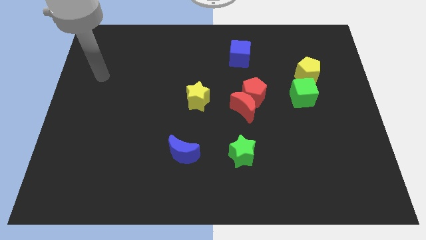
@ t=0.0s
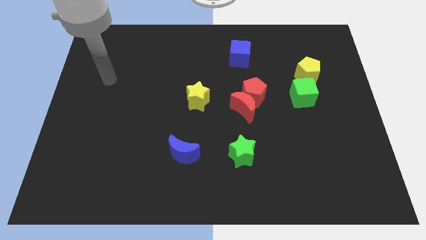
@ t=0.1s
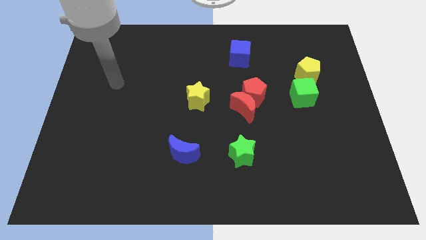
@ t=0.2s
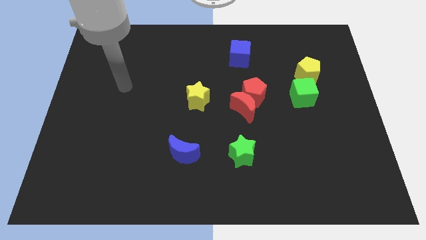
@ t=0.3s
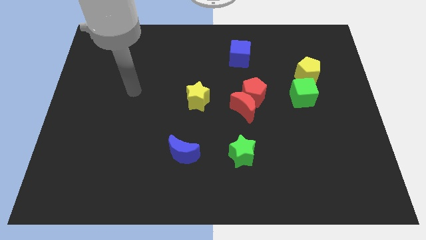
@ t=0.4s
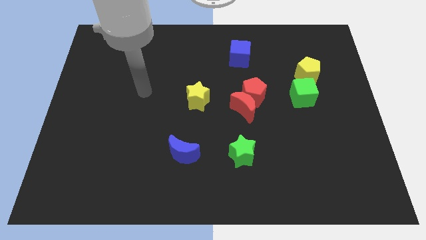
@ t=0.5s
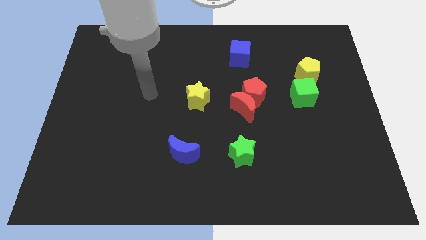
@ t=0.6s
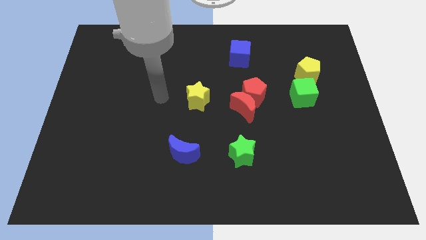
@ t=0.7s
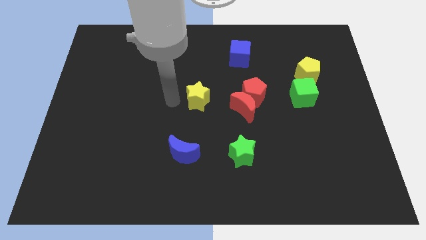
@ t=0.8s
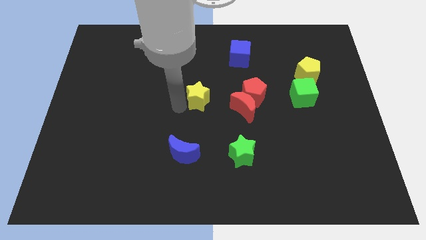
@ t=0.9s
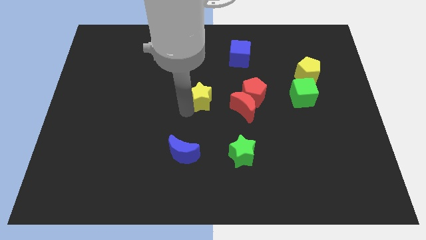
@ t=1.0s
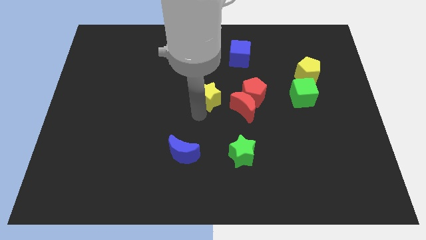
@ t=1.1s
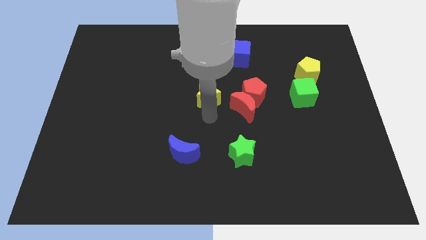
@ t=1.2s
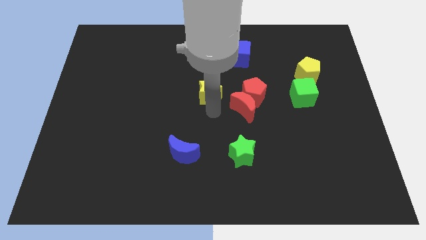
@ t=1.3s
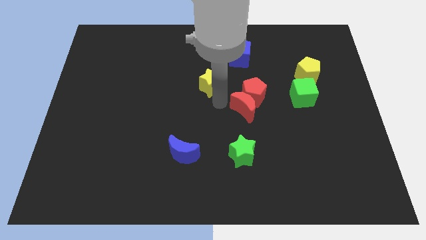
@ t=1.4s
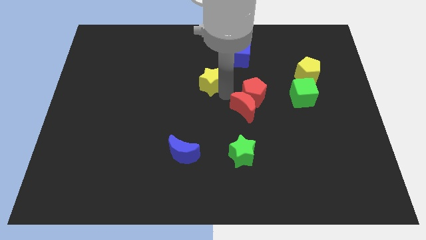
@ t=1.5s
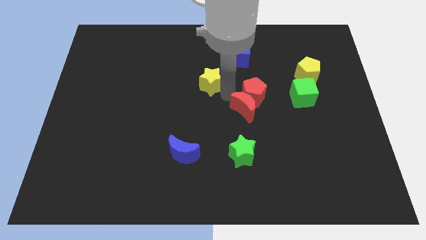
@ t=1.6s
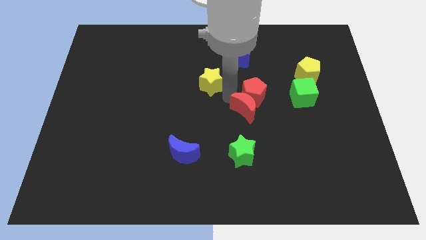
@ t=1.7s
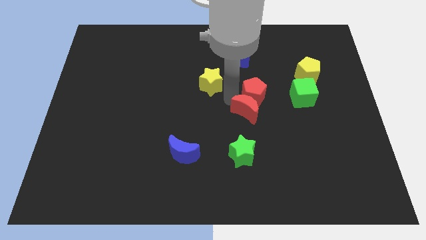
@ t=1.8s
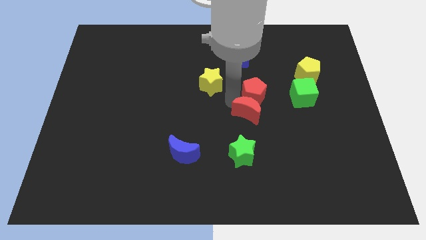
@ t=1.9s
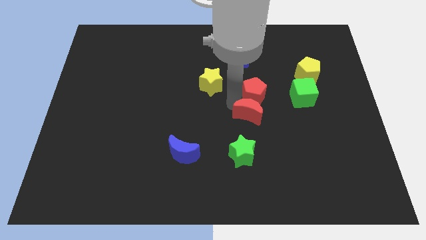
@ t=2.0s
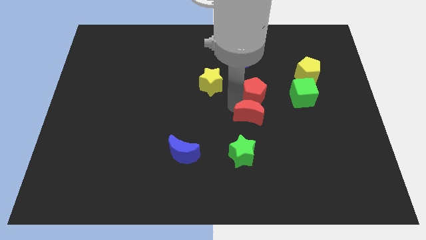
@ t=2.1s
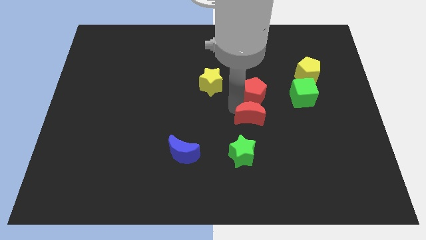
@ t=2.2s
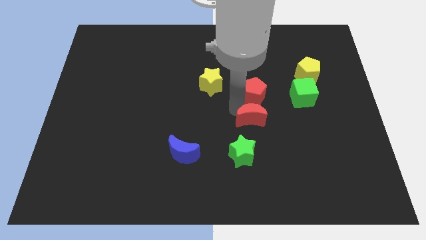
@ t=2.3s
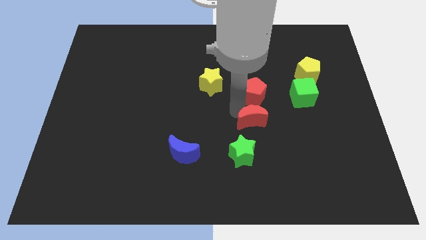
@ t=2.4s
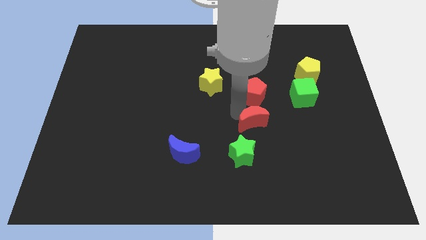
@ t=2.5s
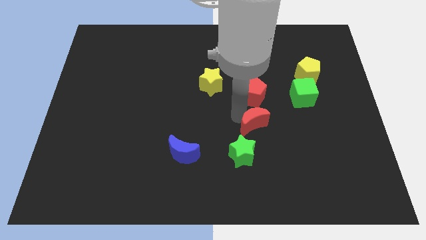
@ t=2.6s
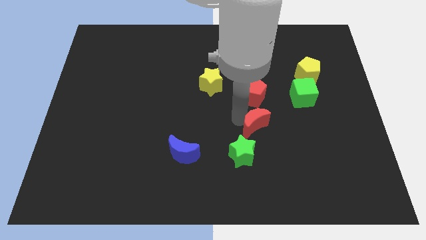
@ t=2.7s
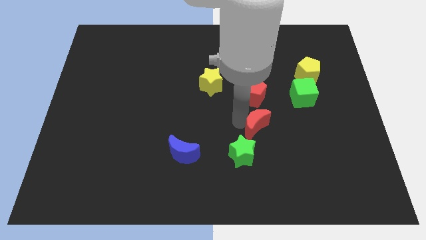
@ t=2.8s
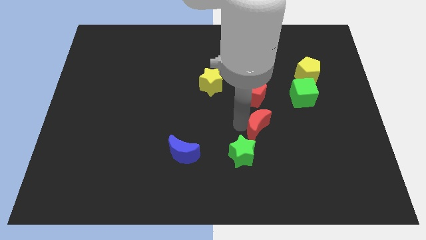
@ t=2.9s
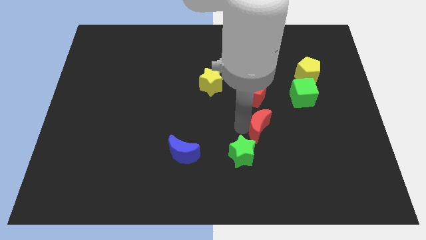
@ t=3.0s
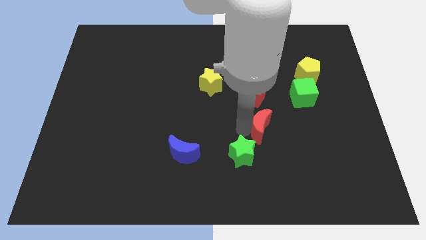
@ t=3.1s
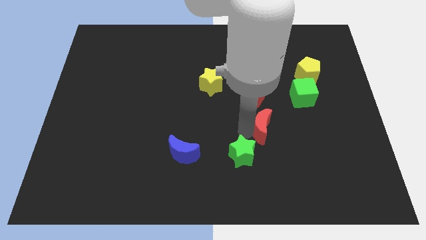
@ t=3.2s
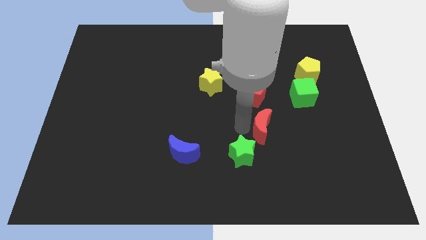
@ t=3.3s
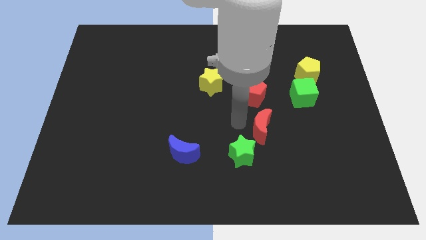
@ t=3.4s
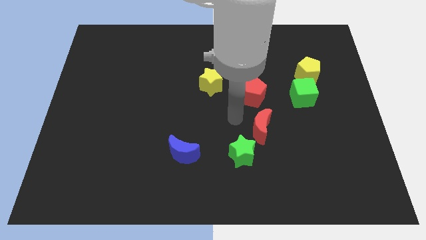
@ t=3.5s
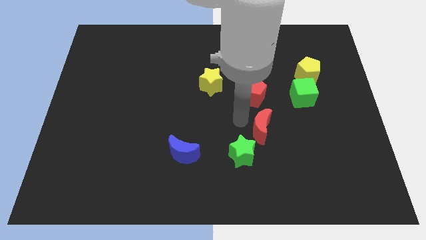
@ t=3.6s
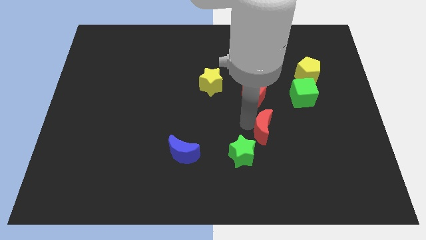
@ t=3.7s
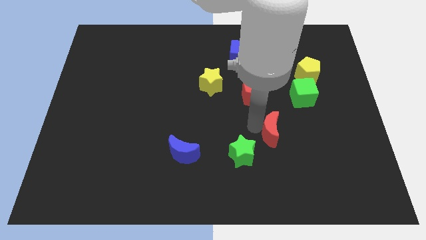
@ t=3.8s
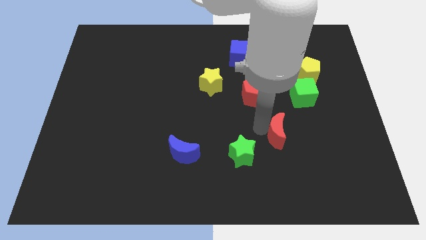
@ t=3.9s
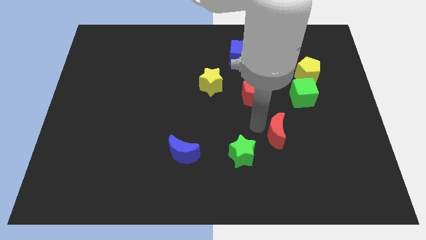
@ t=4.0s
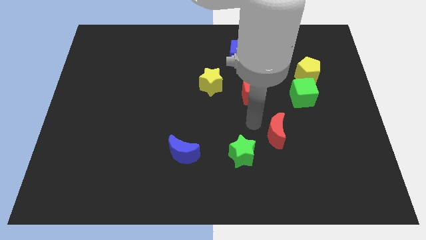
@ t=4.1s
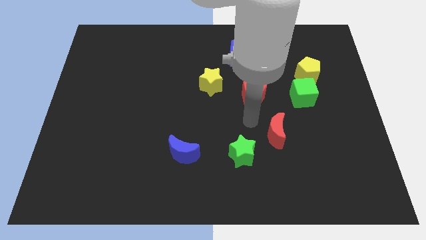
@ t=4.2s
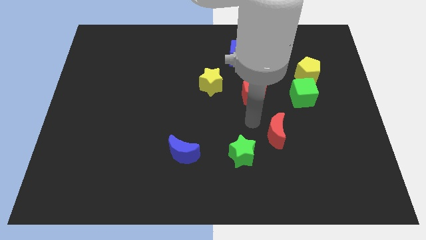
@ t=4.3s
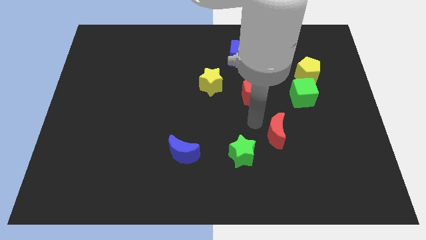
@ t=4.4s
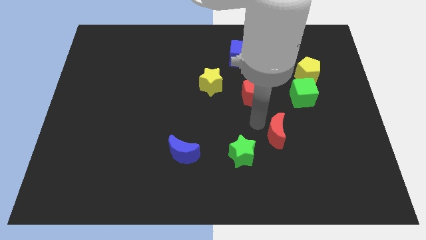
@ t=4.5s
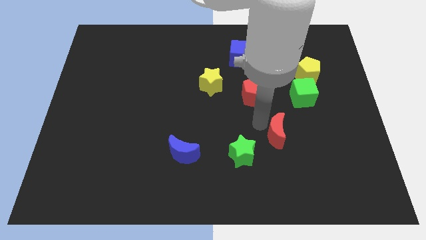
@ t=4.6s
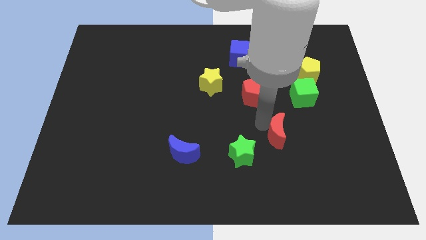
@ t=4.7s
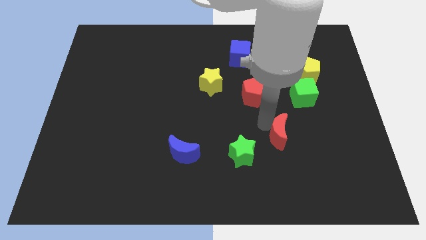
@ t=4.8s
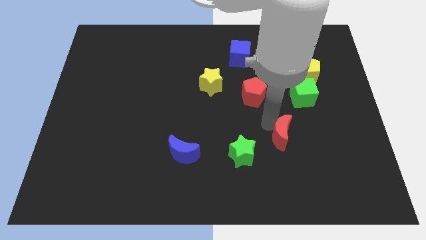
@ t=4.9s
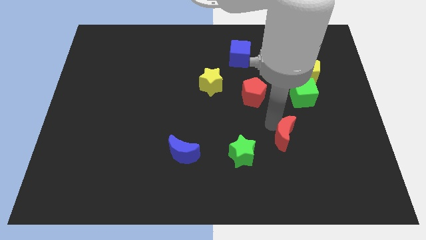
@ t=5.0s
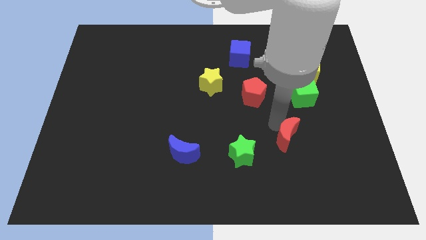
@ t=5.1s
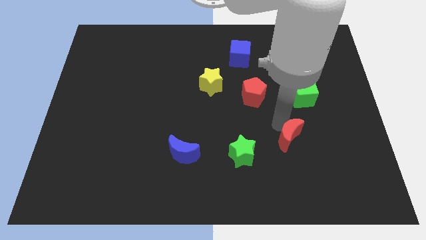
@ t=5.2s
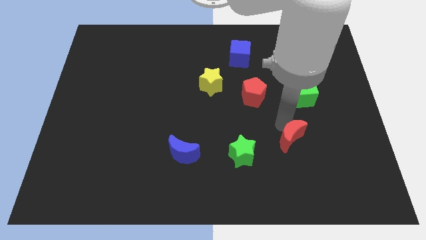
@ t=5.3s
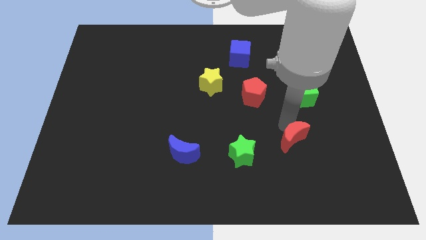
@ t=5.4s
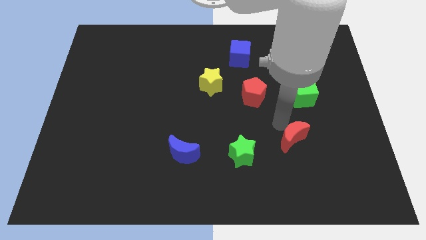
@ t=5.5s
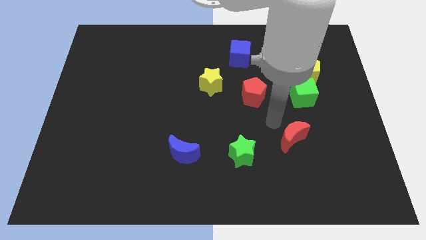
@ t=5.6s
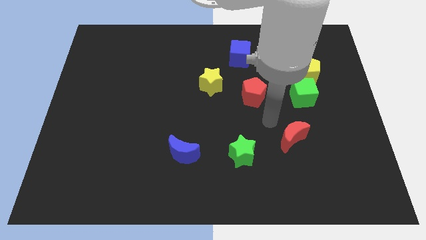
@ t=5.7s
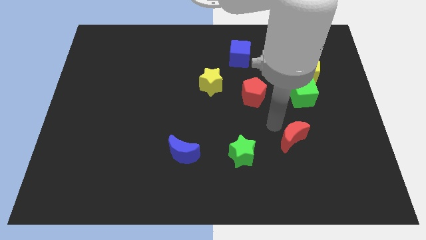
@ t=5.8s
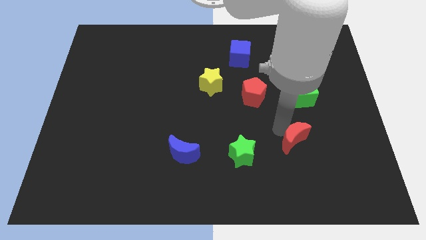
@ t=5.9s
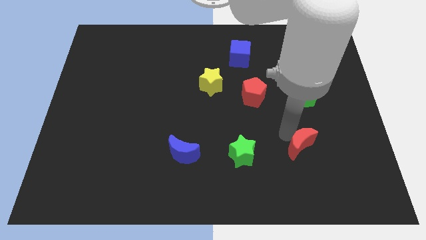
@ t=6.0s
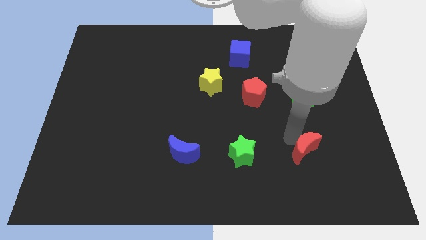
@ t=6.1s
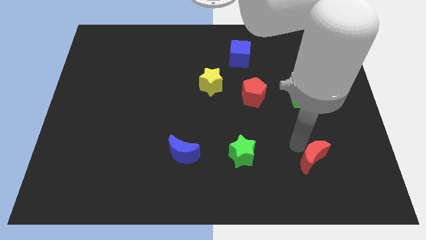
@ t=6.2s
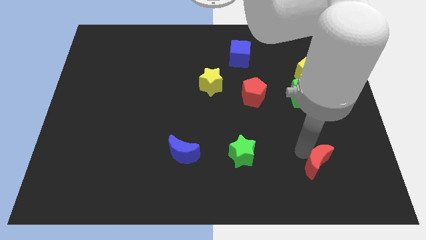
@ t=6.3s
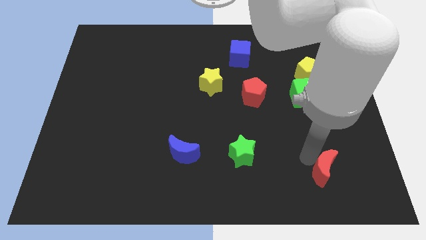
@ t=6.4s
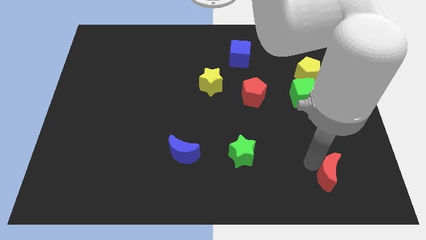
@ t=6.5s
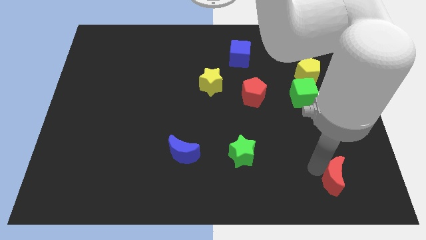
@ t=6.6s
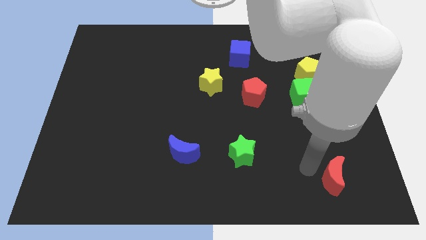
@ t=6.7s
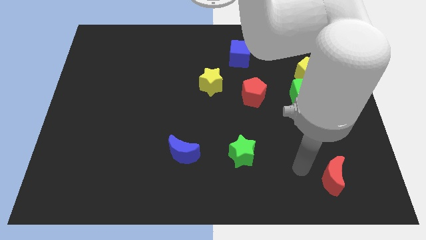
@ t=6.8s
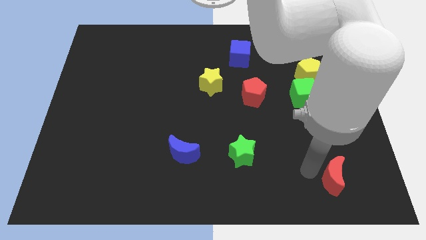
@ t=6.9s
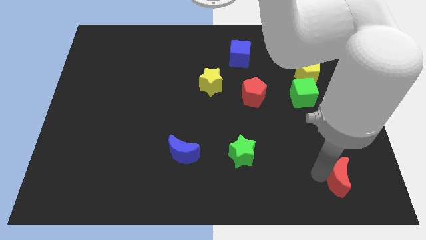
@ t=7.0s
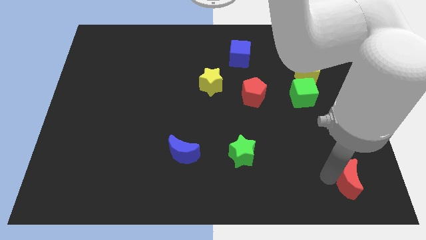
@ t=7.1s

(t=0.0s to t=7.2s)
slide the red moon to the lower right corner
